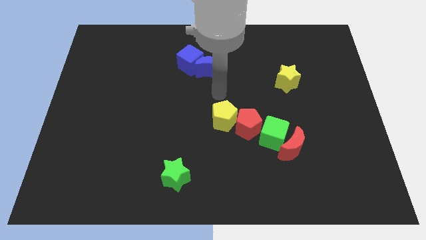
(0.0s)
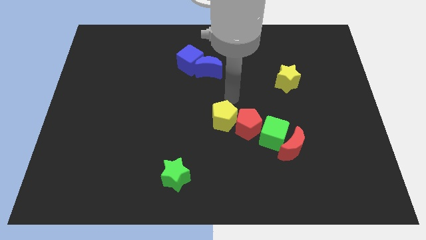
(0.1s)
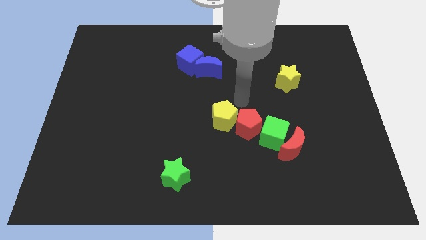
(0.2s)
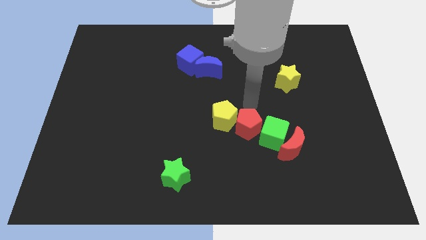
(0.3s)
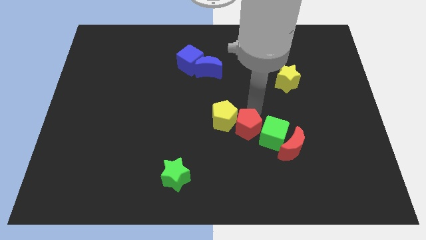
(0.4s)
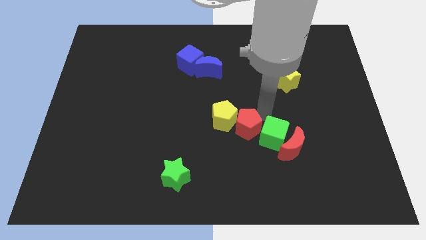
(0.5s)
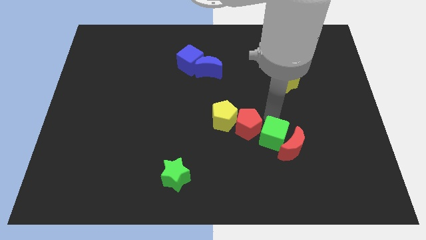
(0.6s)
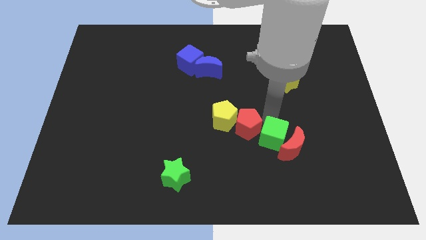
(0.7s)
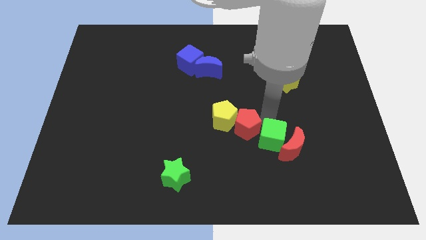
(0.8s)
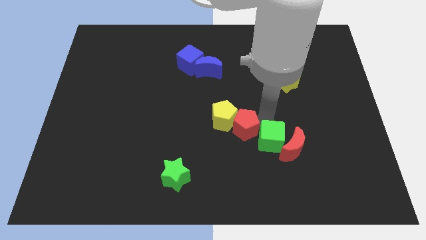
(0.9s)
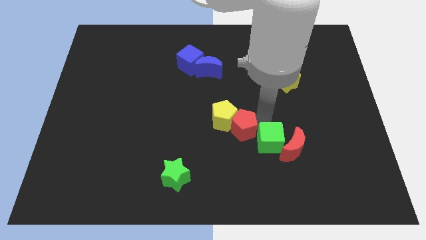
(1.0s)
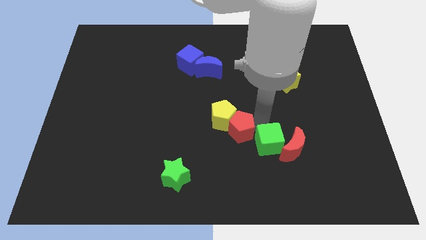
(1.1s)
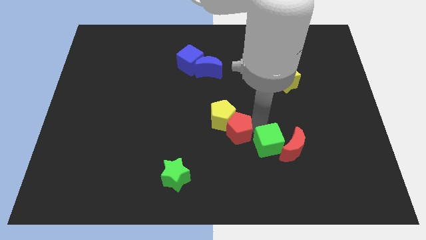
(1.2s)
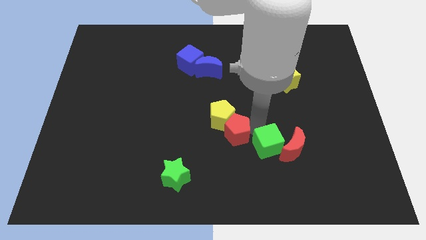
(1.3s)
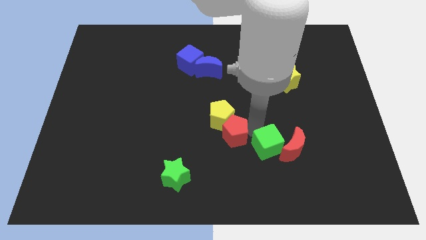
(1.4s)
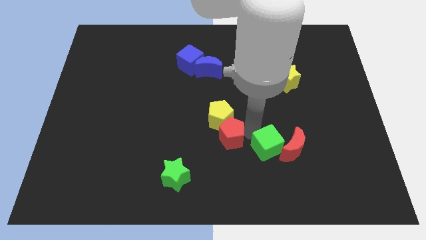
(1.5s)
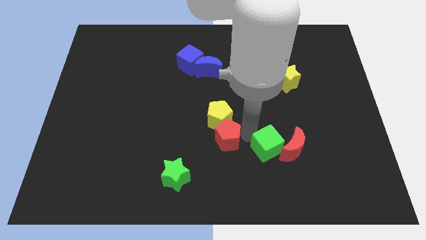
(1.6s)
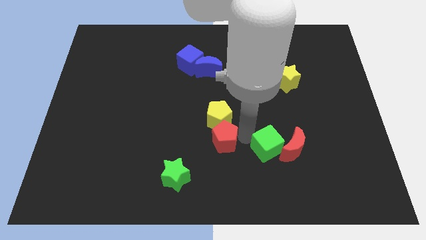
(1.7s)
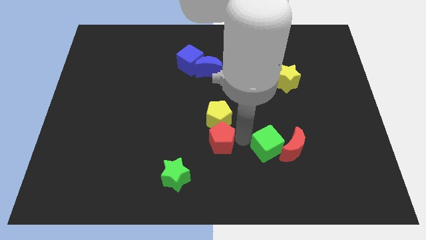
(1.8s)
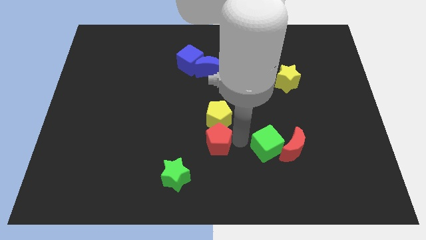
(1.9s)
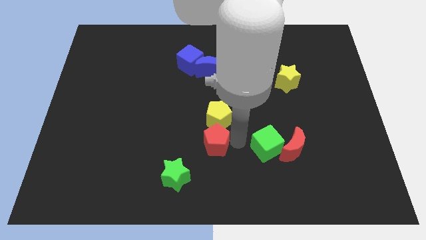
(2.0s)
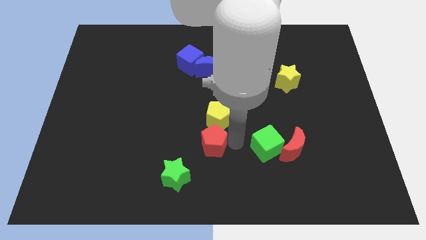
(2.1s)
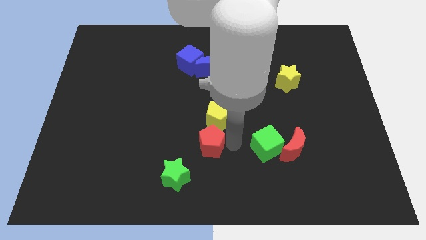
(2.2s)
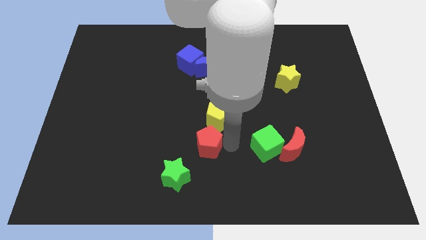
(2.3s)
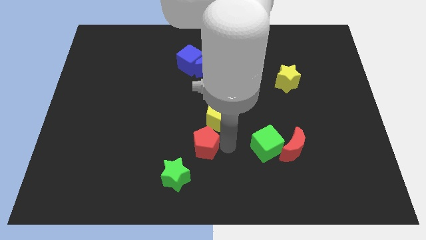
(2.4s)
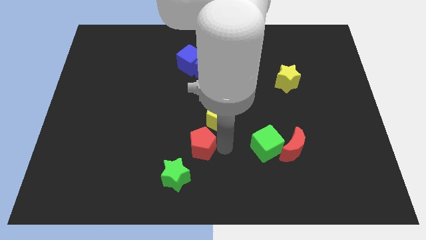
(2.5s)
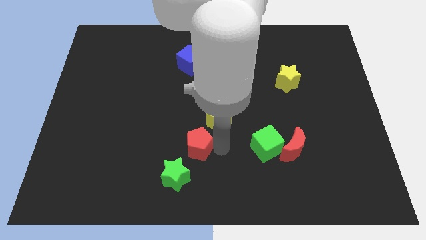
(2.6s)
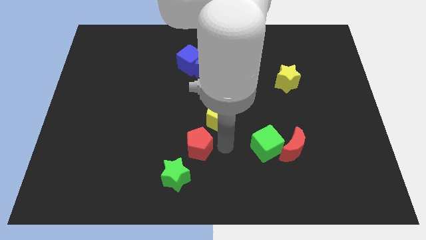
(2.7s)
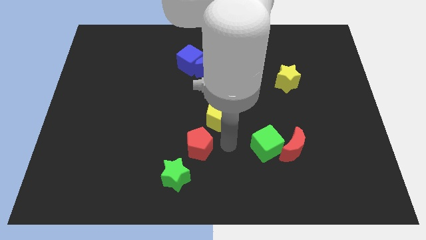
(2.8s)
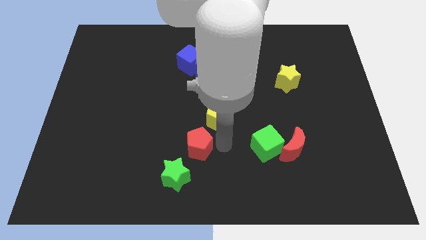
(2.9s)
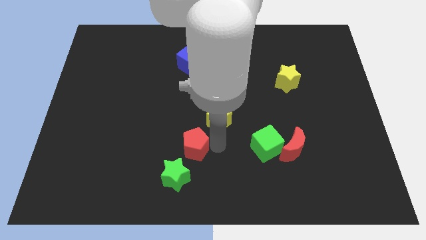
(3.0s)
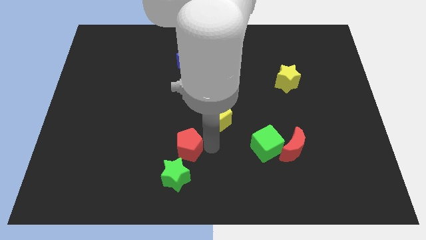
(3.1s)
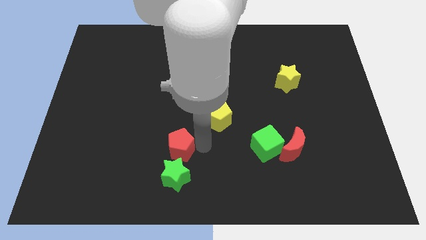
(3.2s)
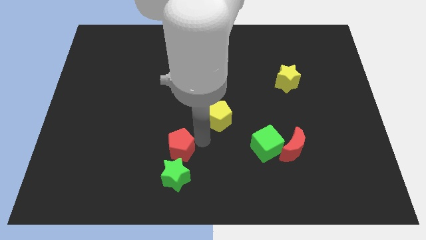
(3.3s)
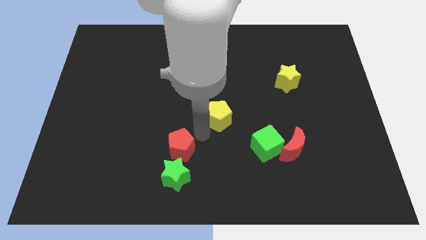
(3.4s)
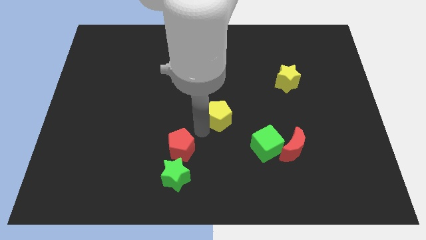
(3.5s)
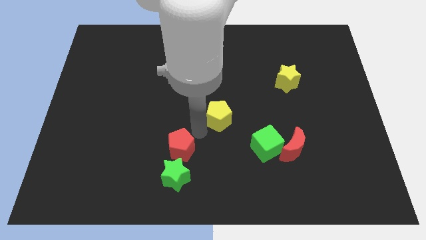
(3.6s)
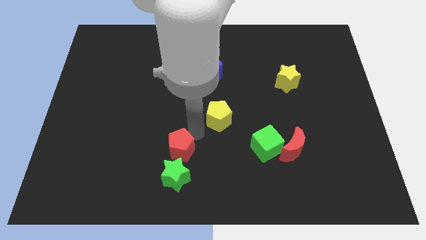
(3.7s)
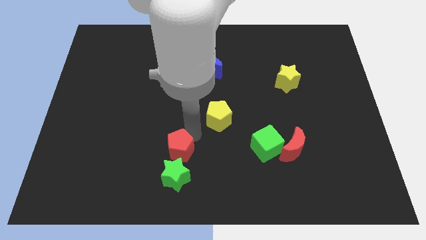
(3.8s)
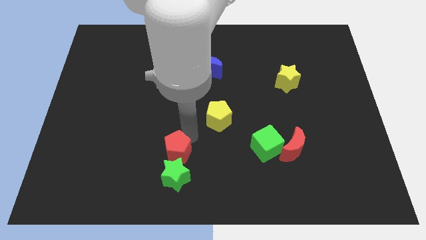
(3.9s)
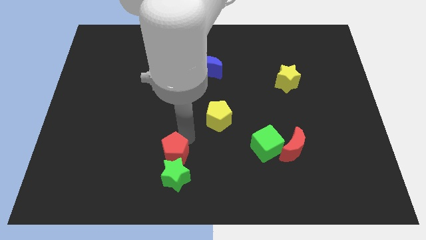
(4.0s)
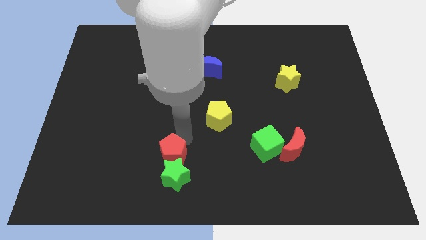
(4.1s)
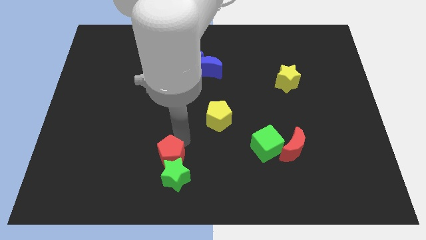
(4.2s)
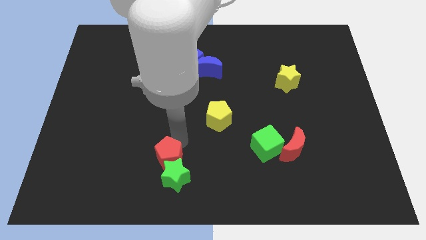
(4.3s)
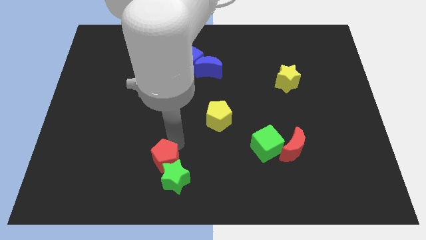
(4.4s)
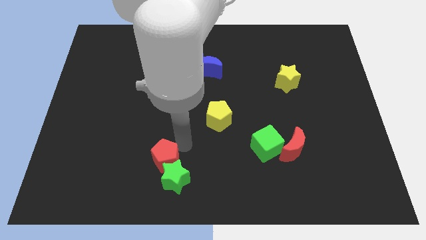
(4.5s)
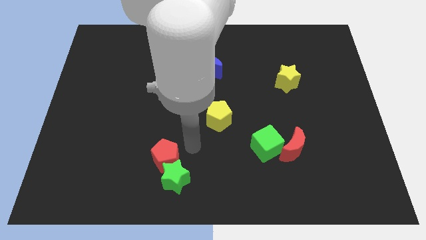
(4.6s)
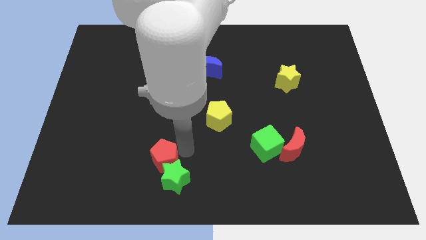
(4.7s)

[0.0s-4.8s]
put the red pentagon just left of the green star

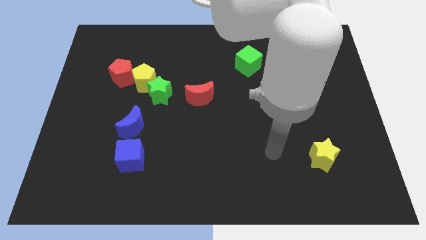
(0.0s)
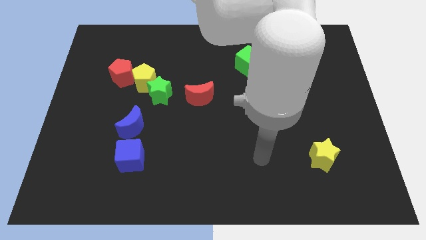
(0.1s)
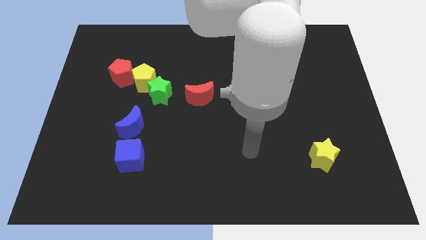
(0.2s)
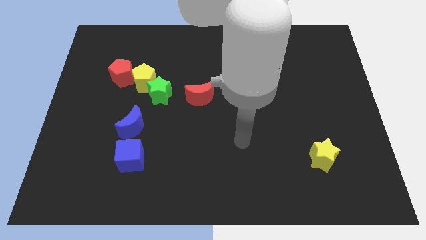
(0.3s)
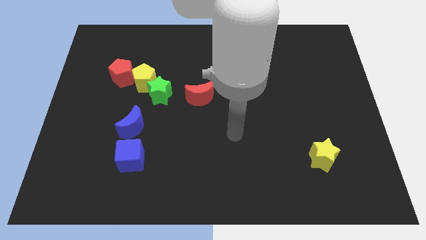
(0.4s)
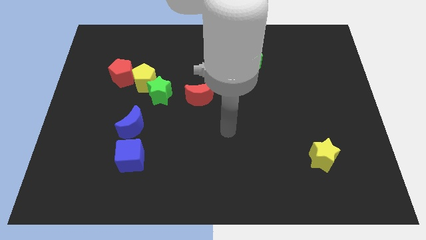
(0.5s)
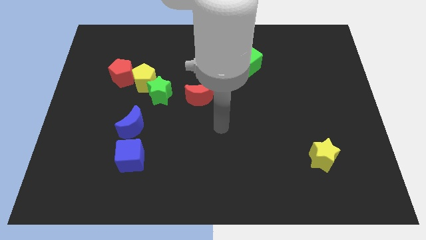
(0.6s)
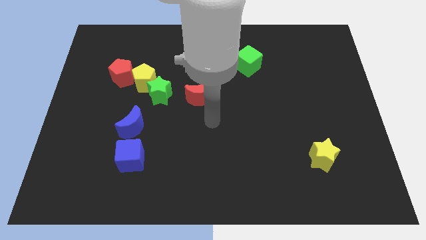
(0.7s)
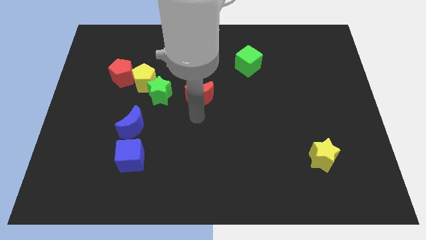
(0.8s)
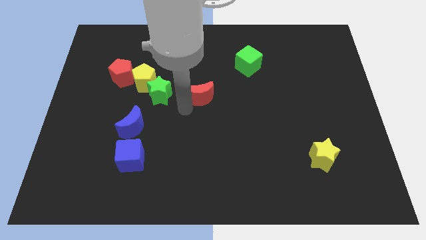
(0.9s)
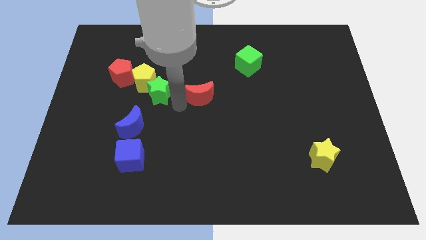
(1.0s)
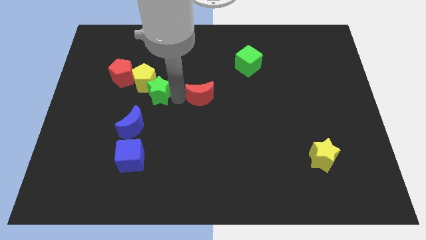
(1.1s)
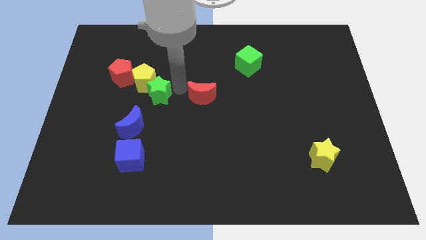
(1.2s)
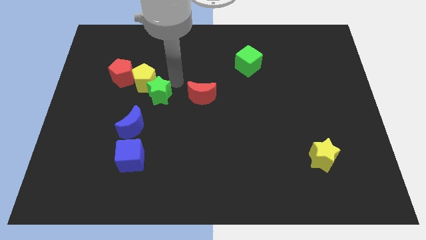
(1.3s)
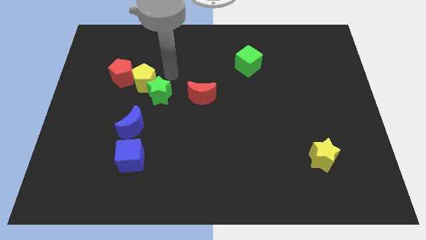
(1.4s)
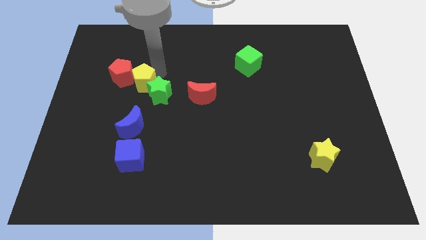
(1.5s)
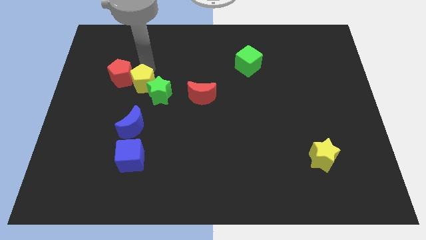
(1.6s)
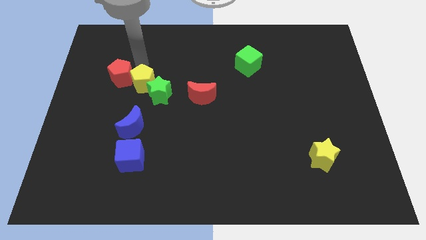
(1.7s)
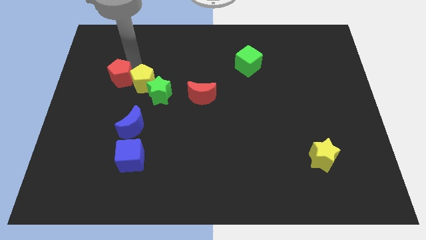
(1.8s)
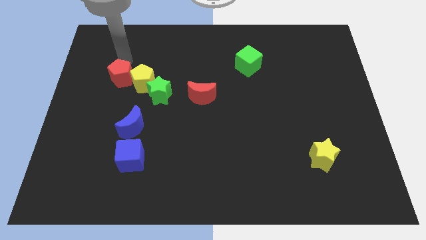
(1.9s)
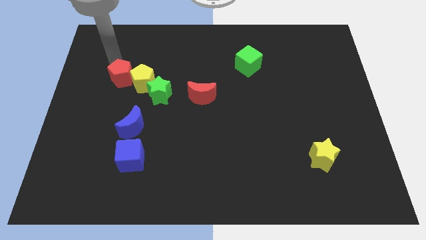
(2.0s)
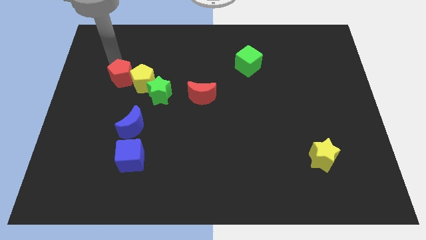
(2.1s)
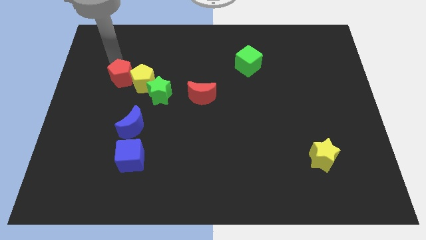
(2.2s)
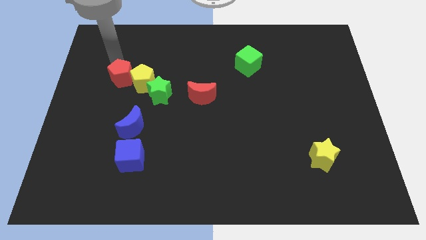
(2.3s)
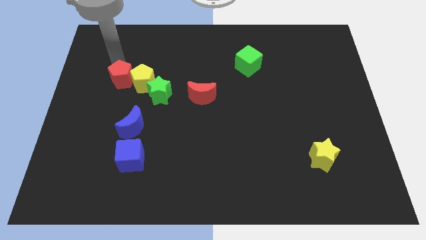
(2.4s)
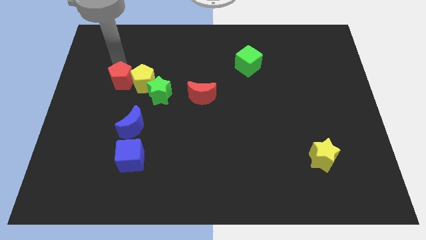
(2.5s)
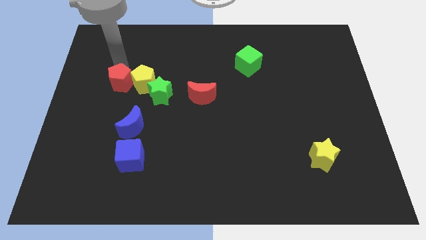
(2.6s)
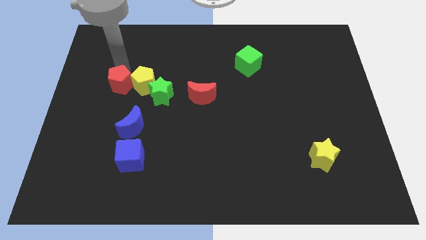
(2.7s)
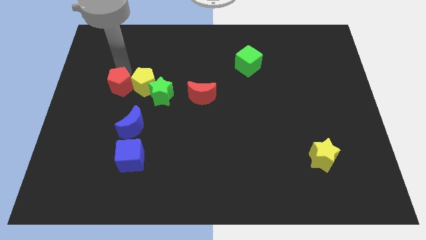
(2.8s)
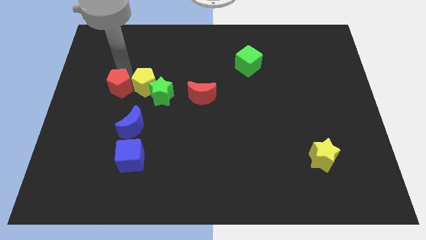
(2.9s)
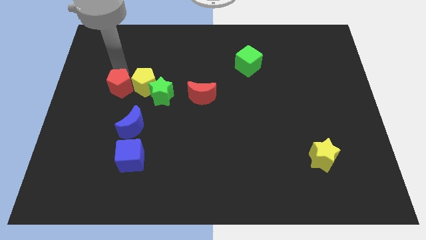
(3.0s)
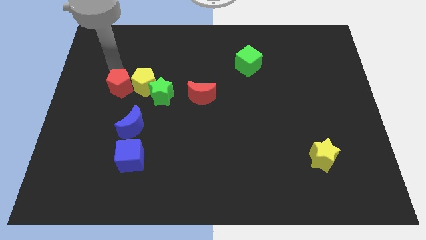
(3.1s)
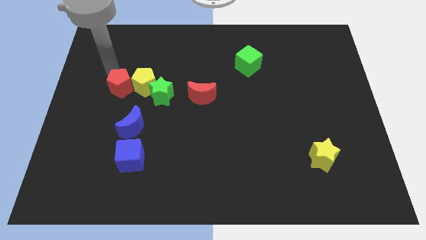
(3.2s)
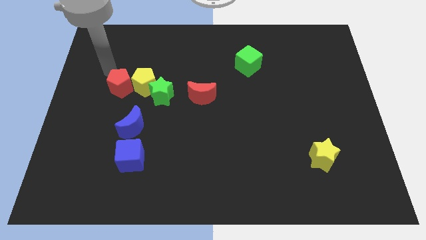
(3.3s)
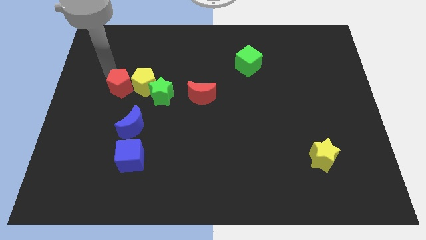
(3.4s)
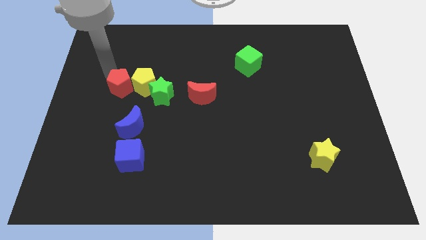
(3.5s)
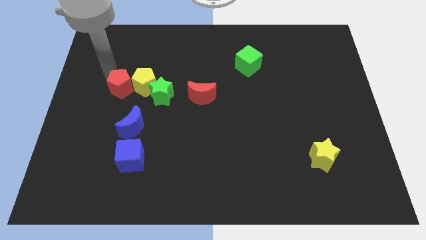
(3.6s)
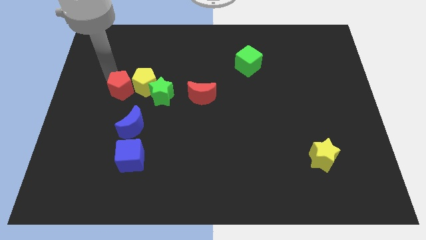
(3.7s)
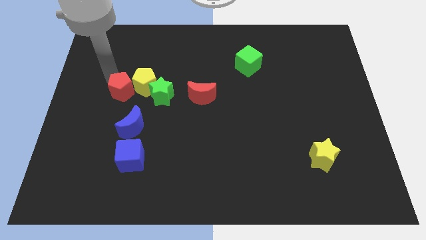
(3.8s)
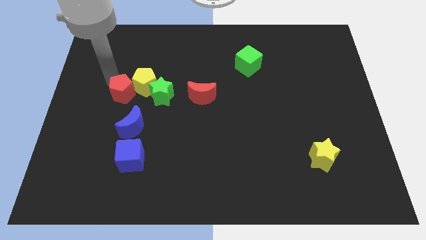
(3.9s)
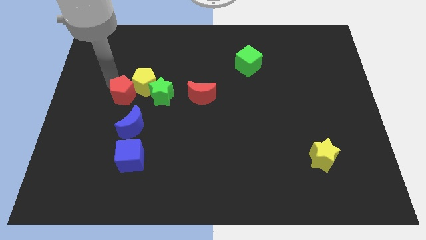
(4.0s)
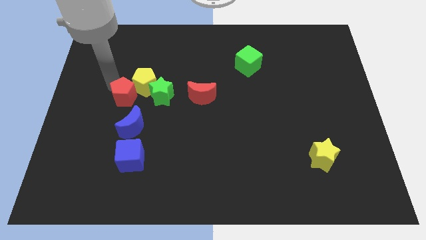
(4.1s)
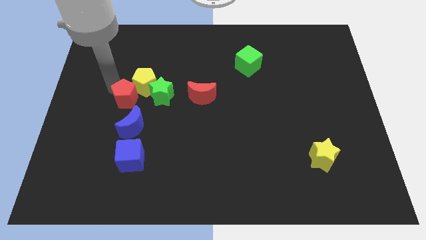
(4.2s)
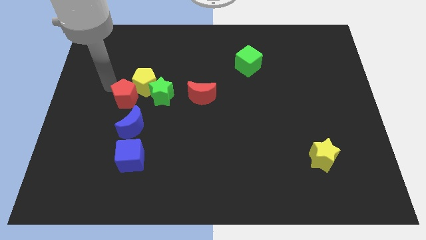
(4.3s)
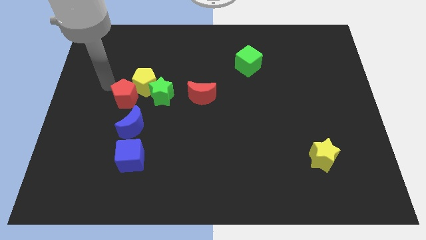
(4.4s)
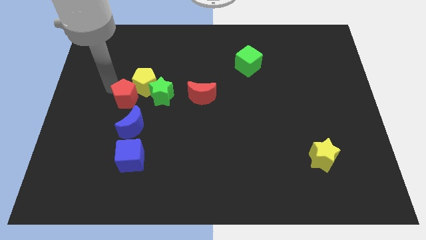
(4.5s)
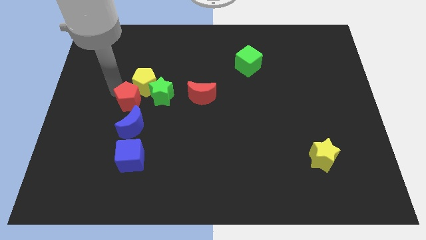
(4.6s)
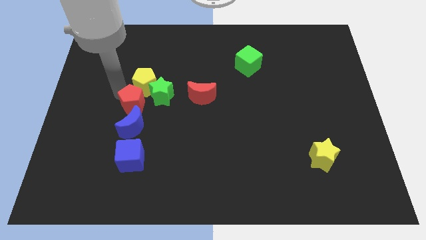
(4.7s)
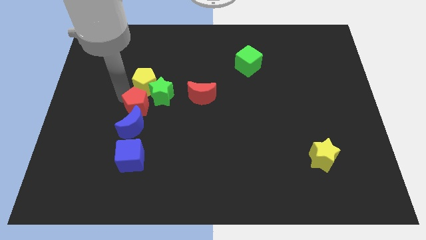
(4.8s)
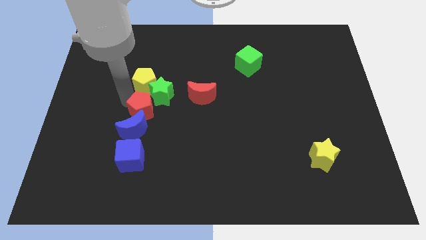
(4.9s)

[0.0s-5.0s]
push the red pentagon to the bottom right side of the yellow pentagon
